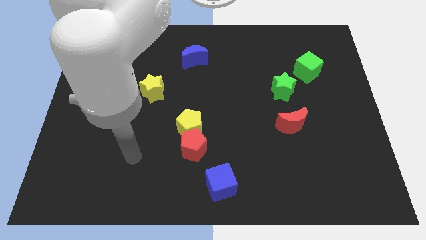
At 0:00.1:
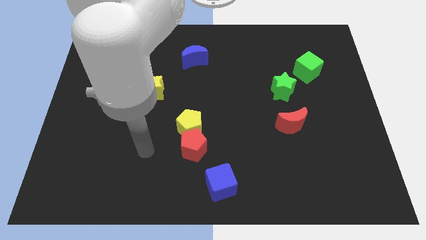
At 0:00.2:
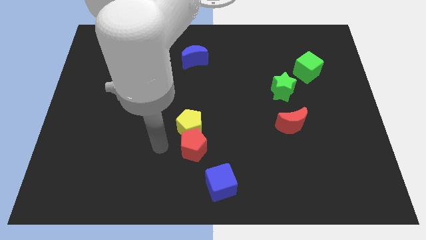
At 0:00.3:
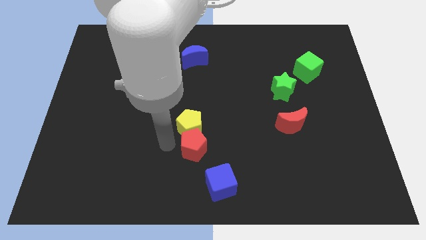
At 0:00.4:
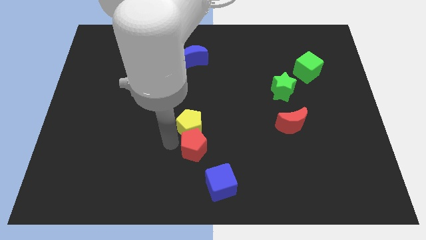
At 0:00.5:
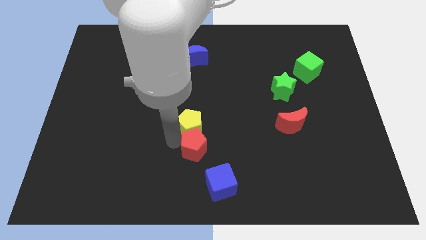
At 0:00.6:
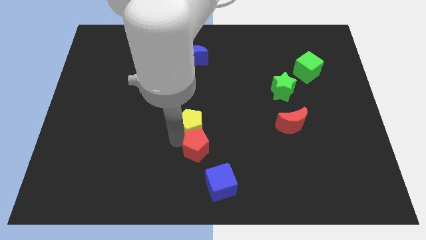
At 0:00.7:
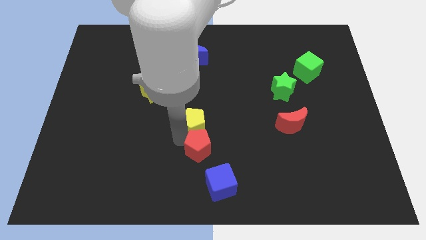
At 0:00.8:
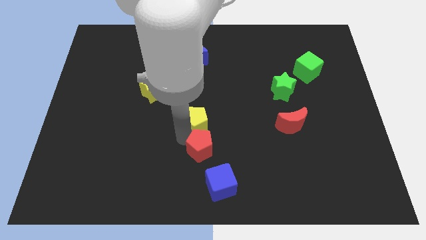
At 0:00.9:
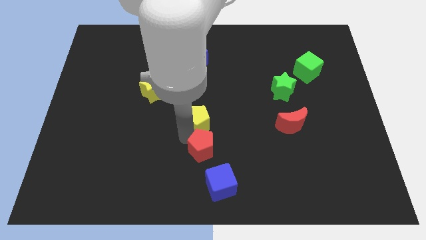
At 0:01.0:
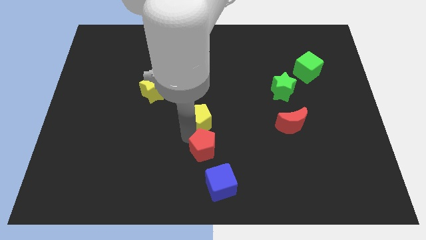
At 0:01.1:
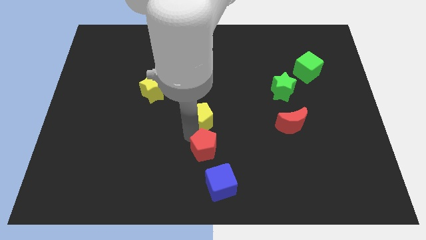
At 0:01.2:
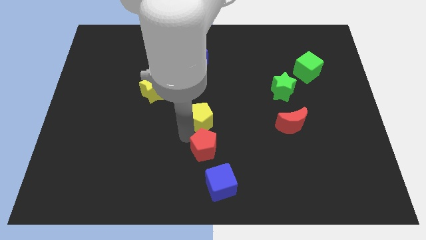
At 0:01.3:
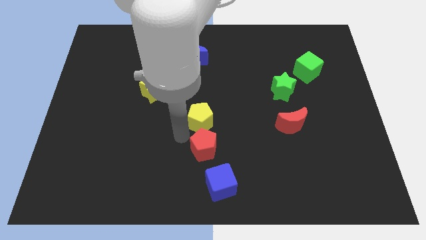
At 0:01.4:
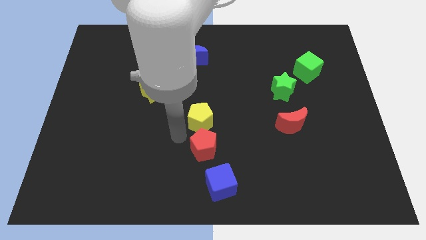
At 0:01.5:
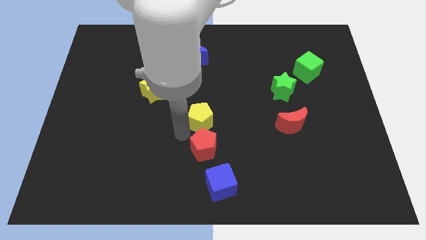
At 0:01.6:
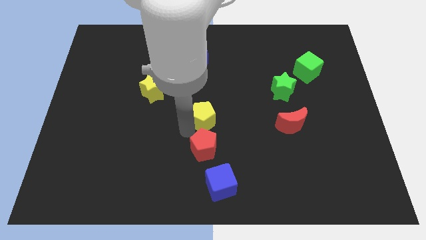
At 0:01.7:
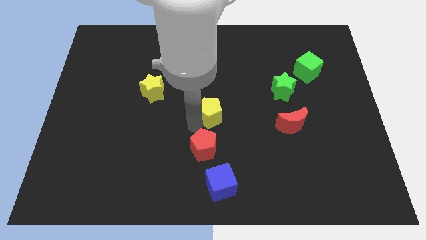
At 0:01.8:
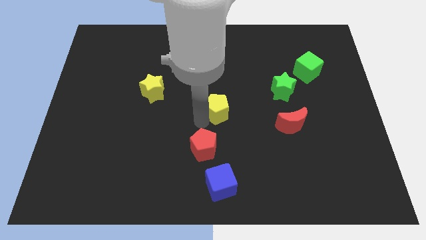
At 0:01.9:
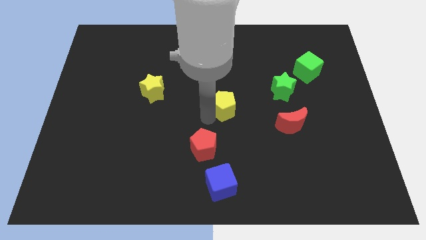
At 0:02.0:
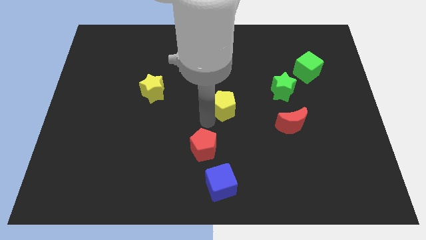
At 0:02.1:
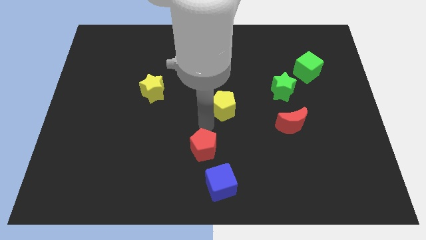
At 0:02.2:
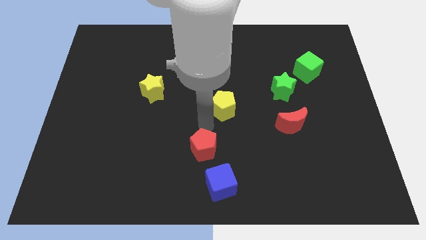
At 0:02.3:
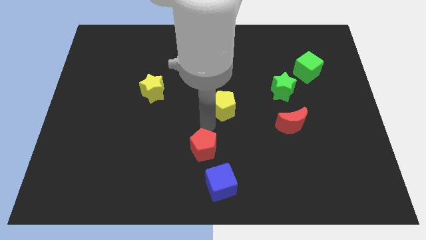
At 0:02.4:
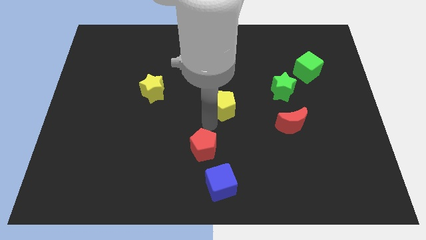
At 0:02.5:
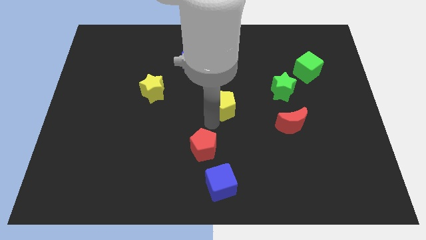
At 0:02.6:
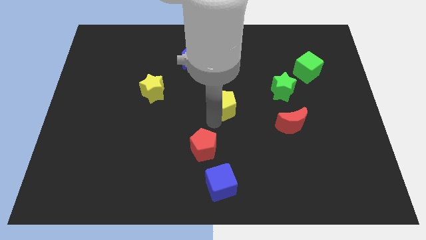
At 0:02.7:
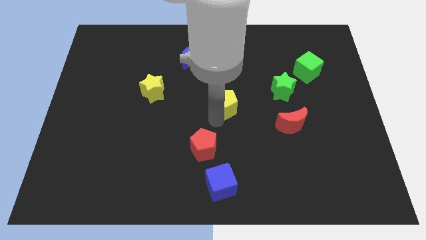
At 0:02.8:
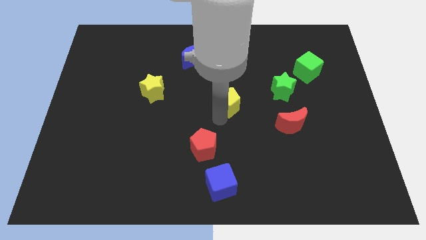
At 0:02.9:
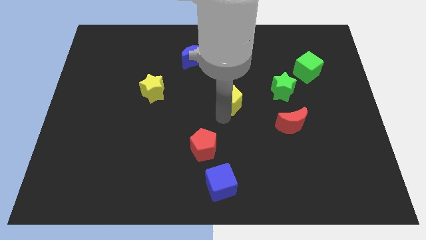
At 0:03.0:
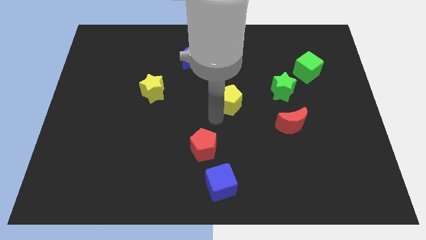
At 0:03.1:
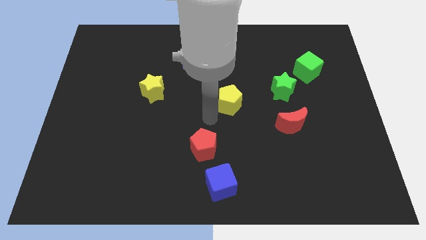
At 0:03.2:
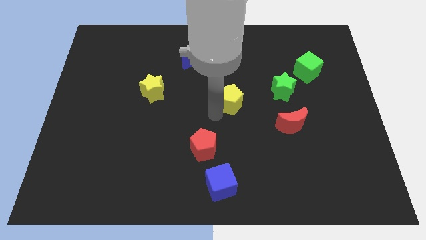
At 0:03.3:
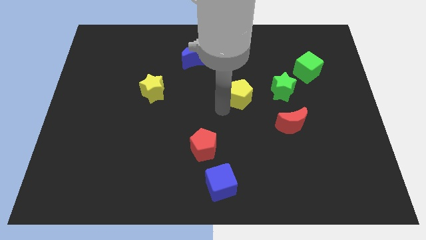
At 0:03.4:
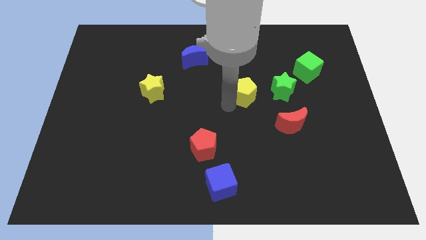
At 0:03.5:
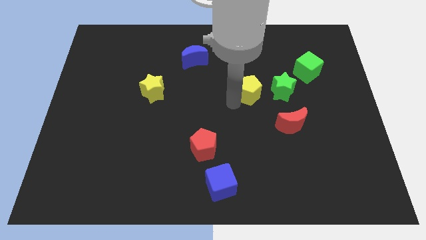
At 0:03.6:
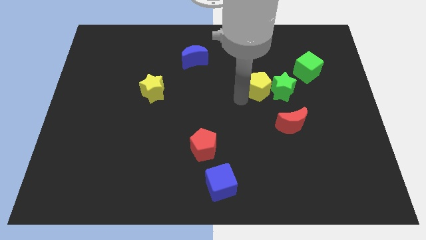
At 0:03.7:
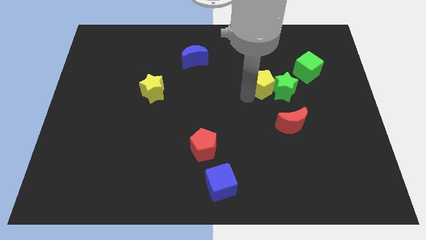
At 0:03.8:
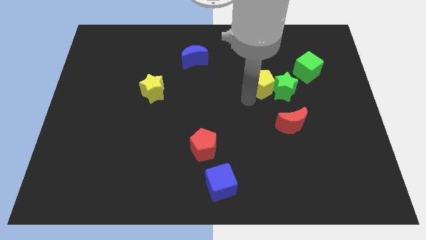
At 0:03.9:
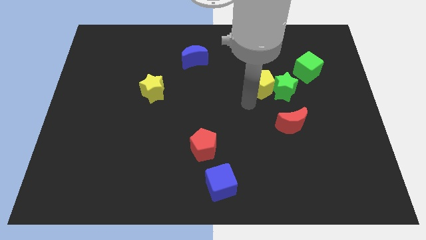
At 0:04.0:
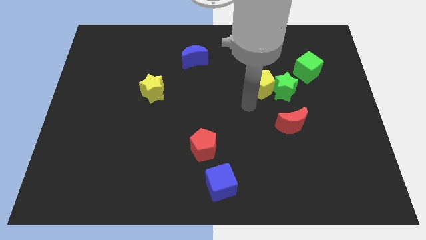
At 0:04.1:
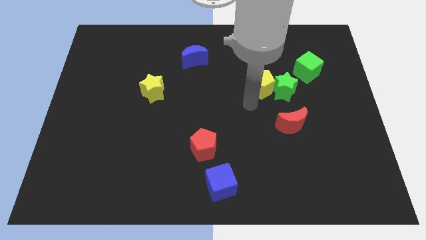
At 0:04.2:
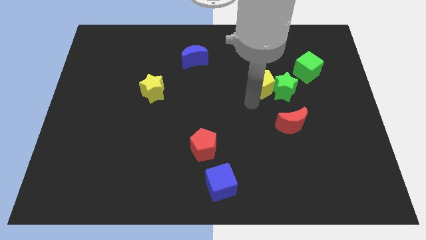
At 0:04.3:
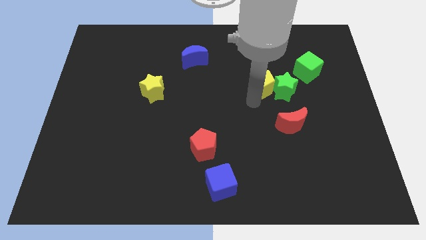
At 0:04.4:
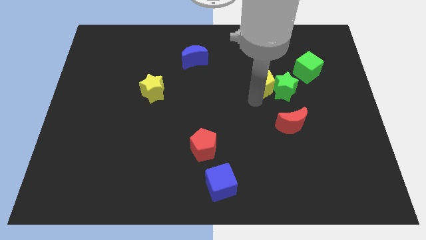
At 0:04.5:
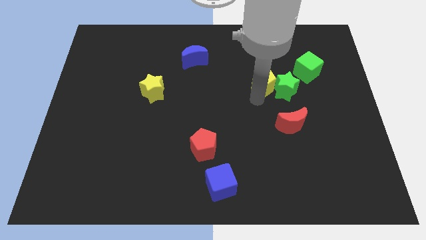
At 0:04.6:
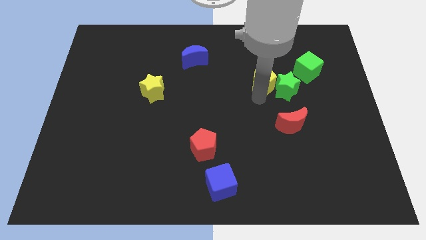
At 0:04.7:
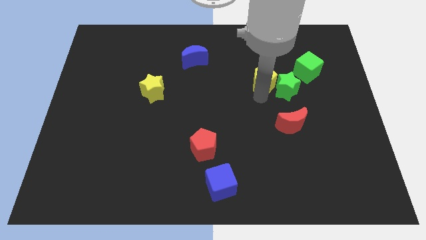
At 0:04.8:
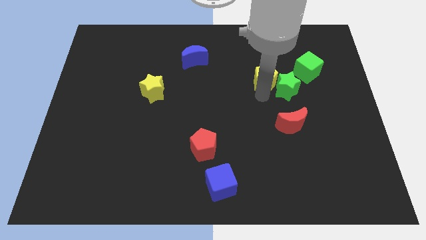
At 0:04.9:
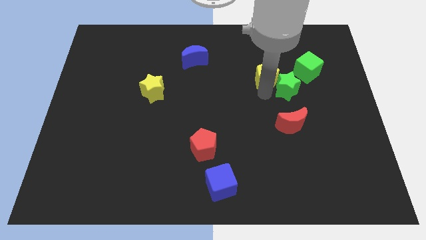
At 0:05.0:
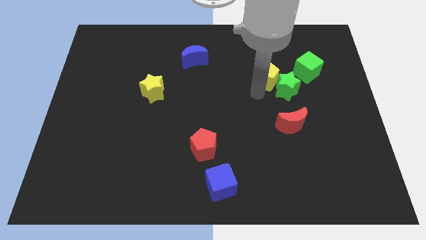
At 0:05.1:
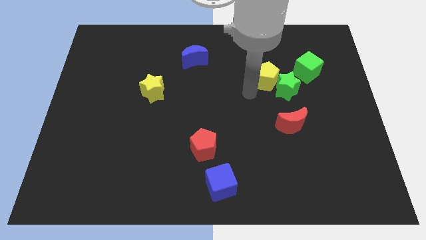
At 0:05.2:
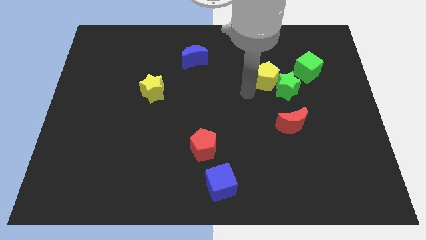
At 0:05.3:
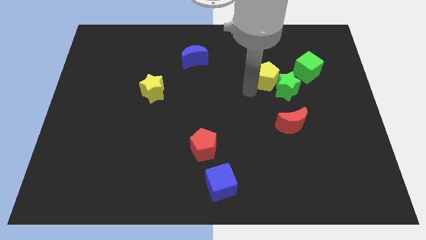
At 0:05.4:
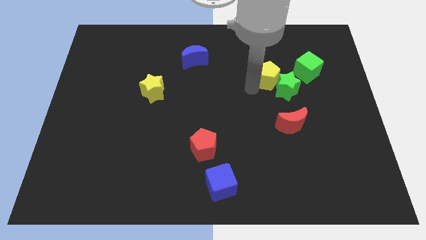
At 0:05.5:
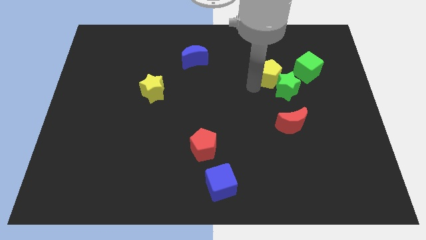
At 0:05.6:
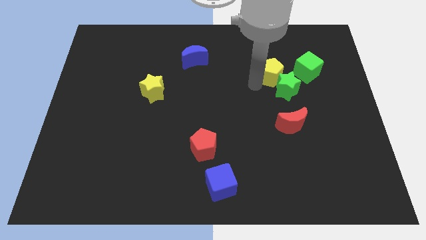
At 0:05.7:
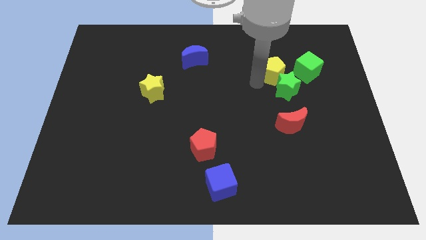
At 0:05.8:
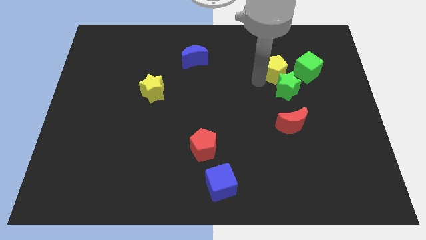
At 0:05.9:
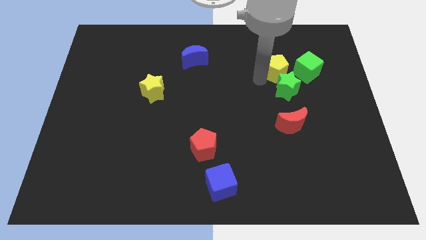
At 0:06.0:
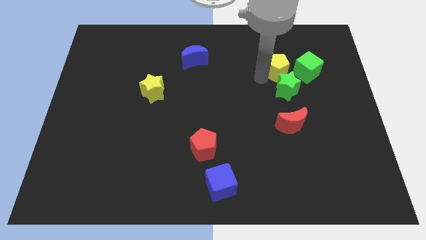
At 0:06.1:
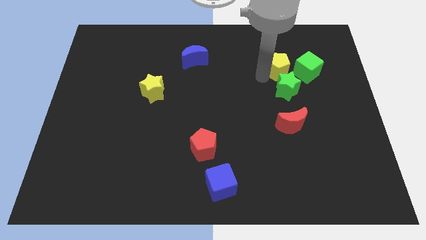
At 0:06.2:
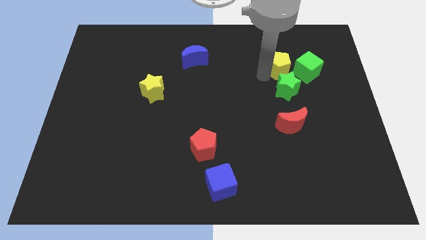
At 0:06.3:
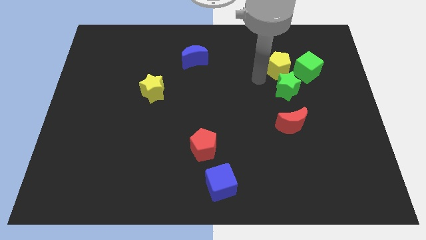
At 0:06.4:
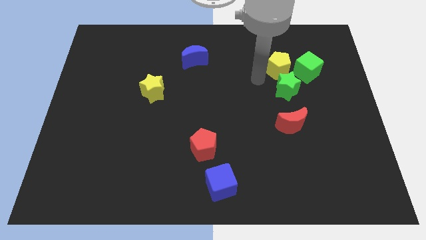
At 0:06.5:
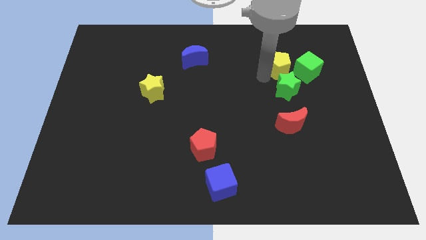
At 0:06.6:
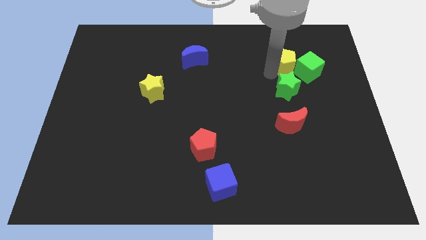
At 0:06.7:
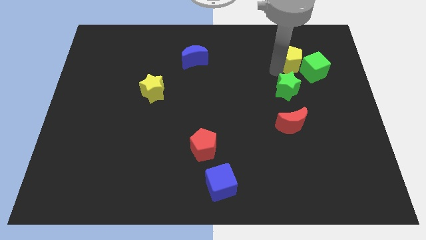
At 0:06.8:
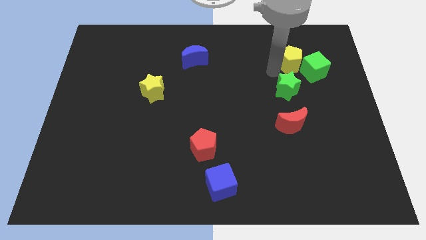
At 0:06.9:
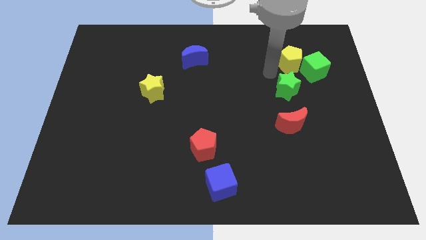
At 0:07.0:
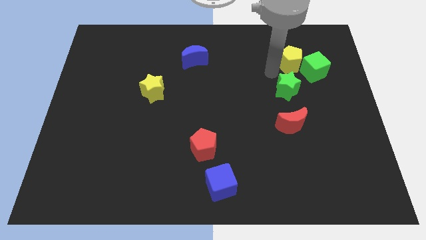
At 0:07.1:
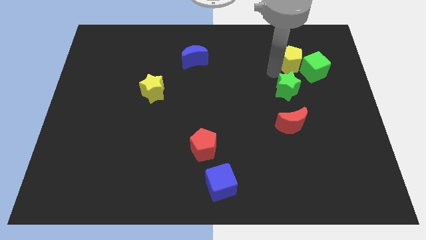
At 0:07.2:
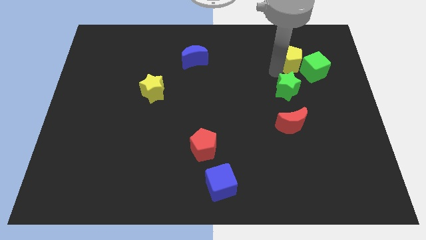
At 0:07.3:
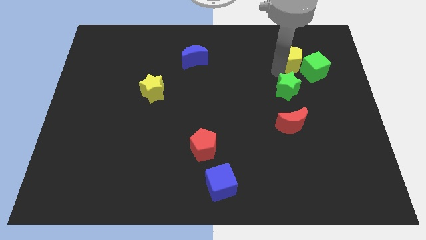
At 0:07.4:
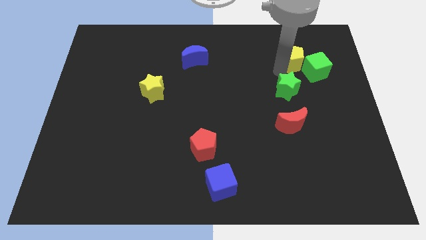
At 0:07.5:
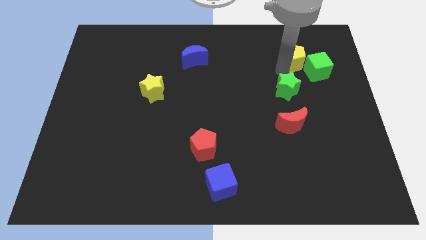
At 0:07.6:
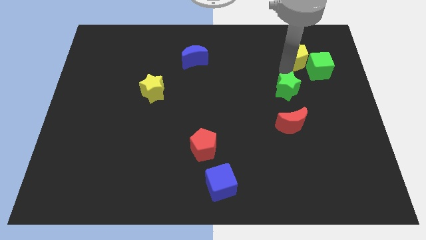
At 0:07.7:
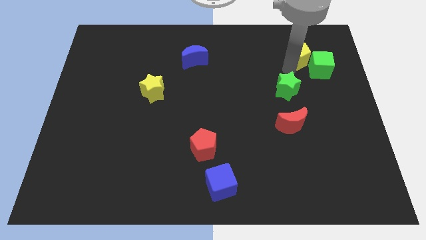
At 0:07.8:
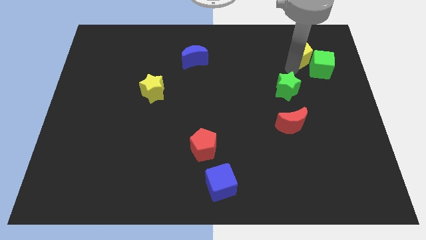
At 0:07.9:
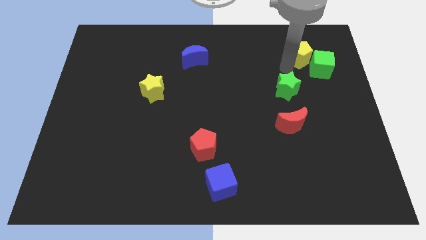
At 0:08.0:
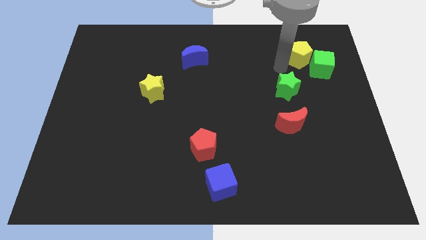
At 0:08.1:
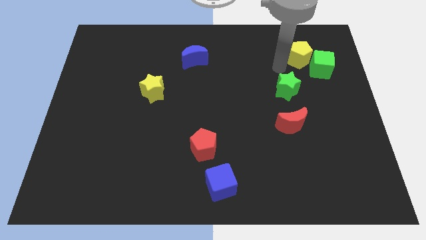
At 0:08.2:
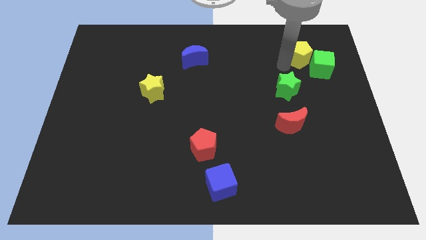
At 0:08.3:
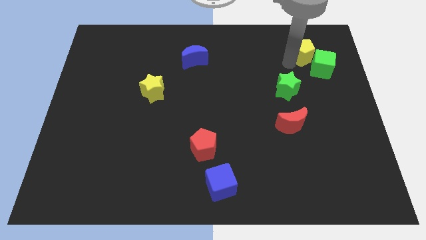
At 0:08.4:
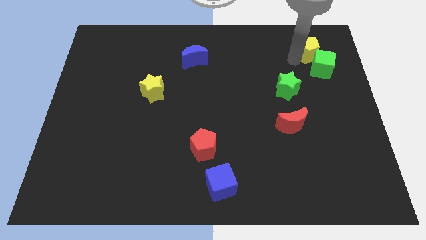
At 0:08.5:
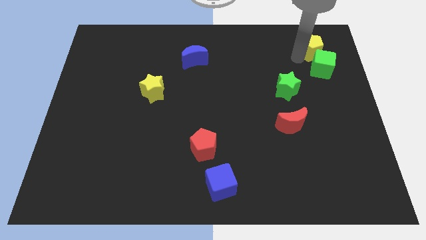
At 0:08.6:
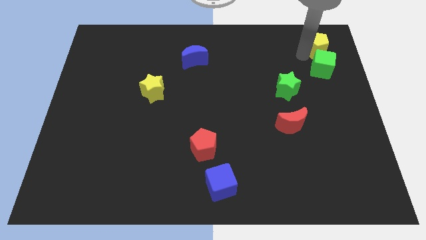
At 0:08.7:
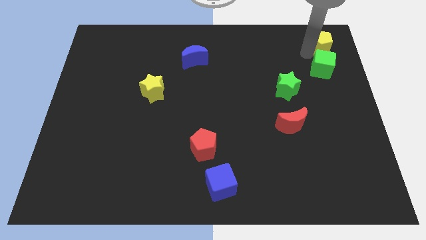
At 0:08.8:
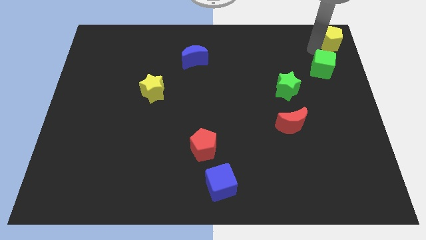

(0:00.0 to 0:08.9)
put the yellow pentagon to the top right corner
